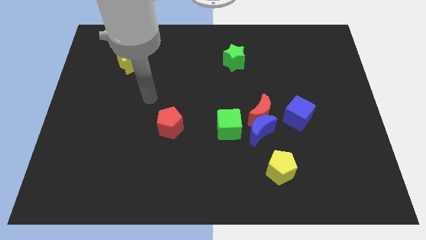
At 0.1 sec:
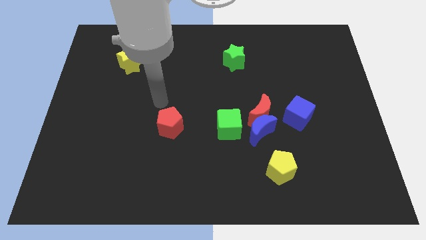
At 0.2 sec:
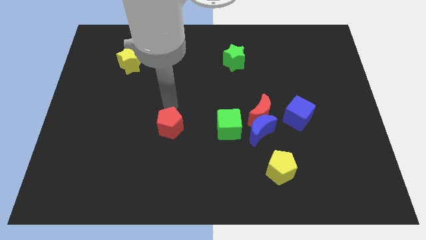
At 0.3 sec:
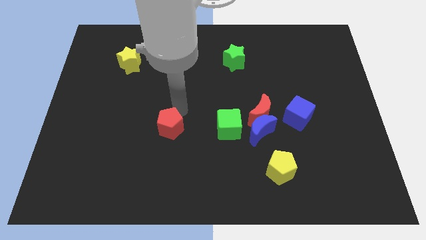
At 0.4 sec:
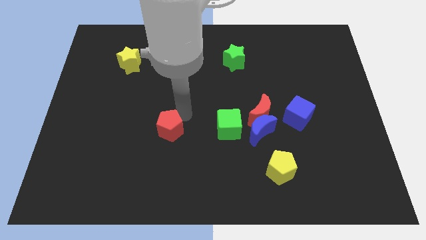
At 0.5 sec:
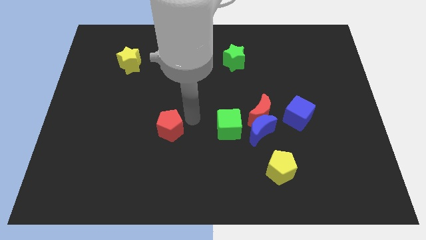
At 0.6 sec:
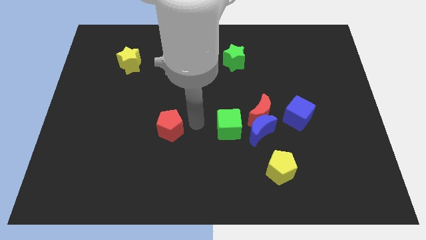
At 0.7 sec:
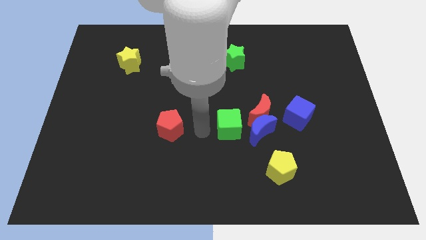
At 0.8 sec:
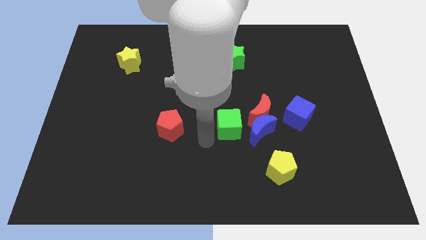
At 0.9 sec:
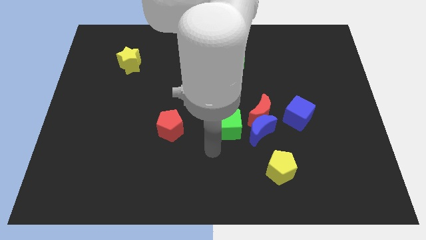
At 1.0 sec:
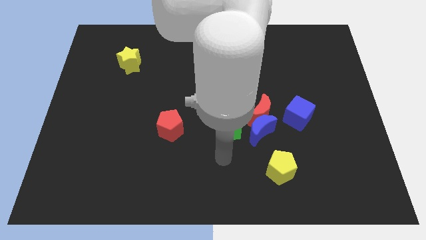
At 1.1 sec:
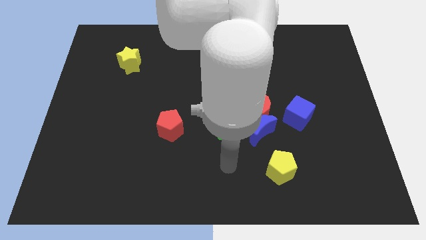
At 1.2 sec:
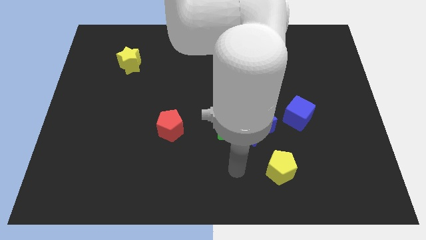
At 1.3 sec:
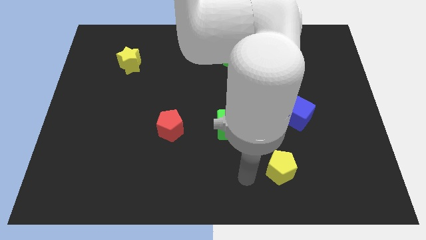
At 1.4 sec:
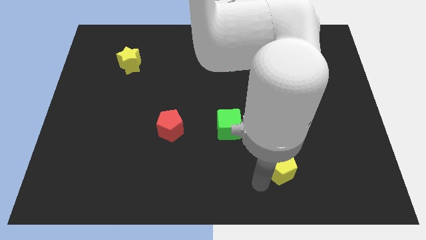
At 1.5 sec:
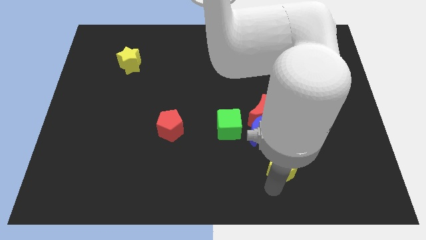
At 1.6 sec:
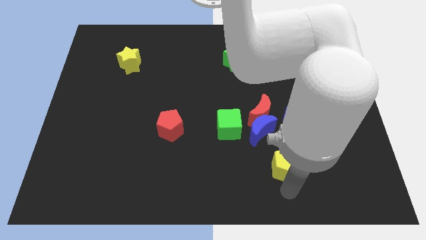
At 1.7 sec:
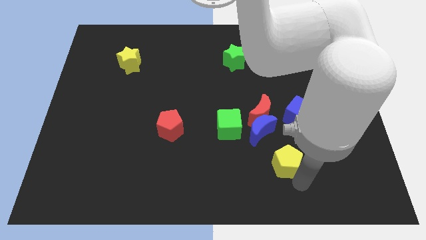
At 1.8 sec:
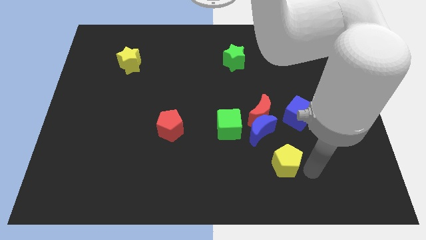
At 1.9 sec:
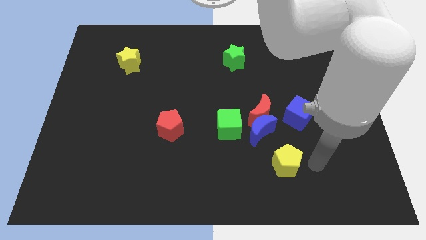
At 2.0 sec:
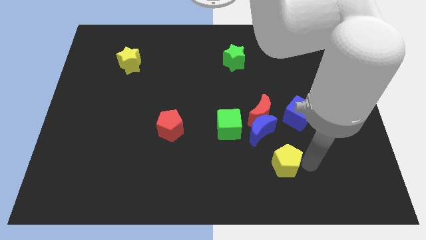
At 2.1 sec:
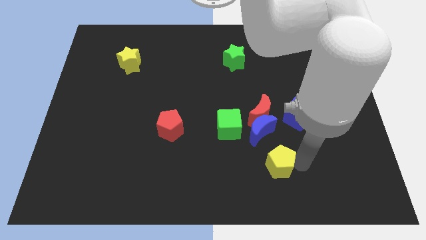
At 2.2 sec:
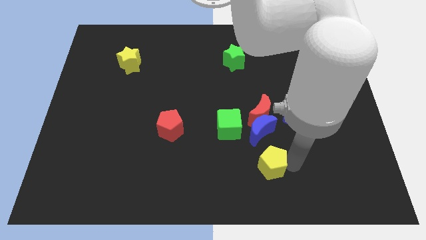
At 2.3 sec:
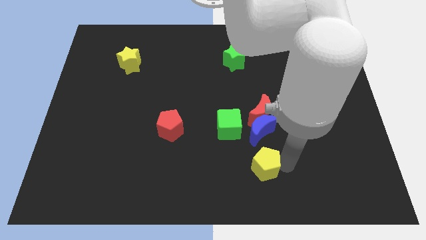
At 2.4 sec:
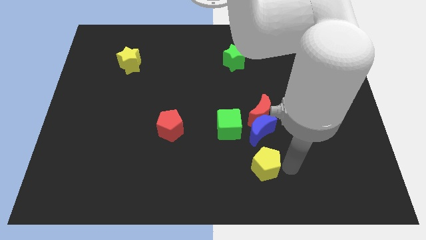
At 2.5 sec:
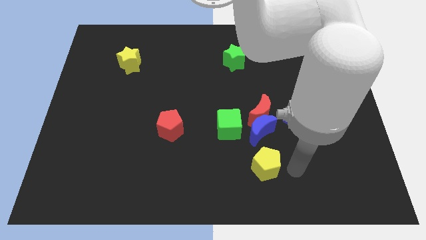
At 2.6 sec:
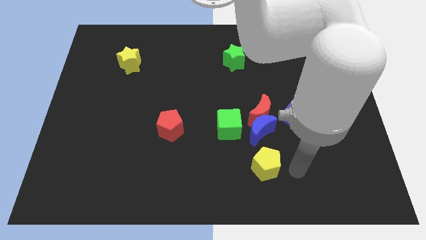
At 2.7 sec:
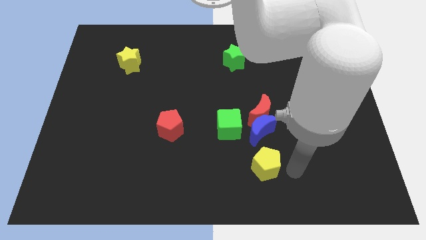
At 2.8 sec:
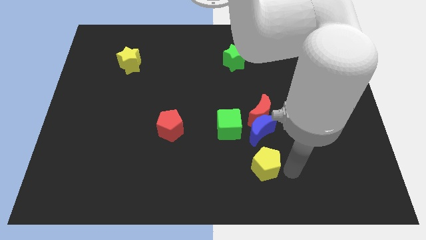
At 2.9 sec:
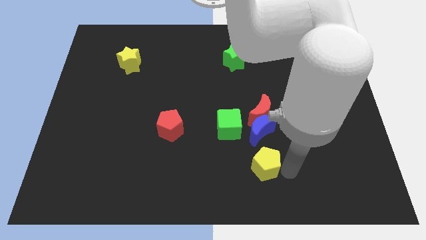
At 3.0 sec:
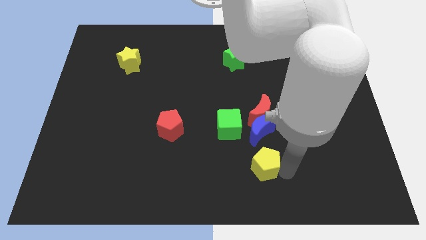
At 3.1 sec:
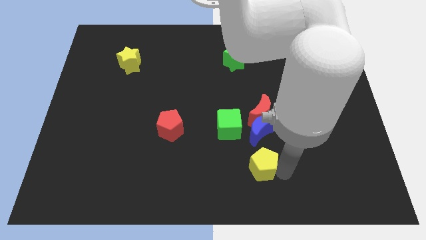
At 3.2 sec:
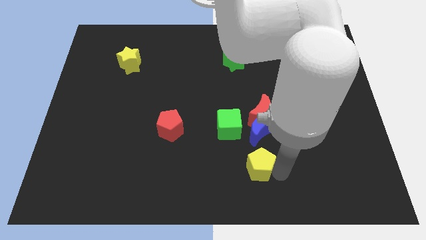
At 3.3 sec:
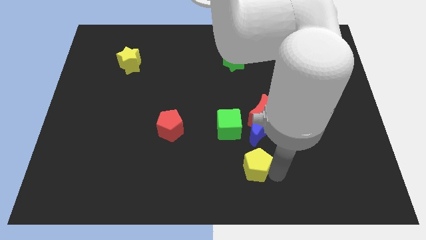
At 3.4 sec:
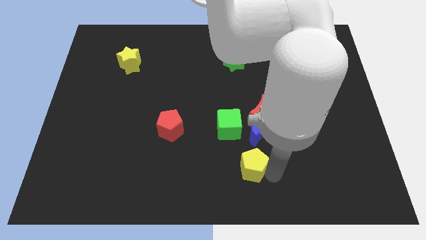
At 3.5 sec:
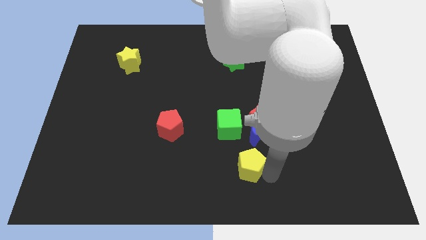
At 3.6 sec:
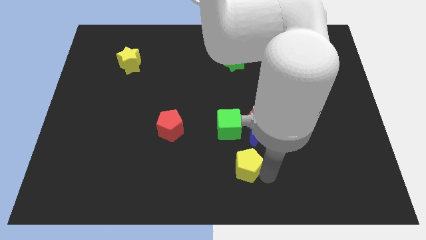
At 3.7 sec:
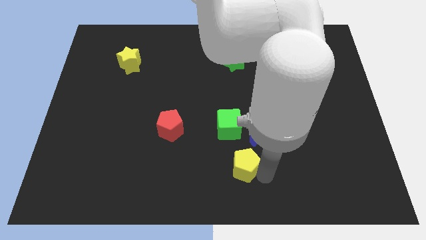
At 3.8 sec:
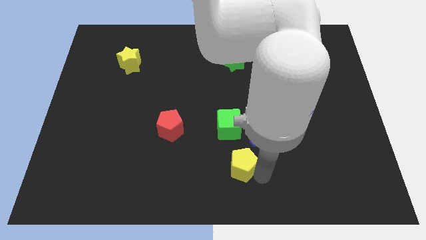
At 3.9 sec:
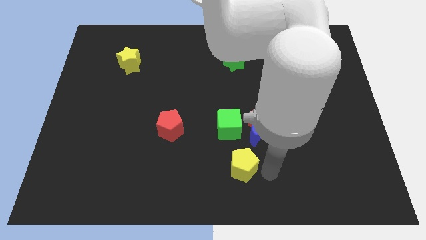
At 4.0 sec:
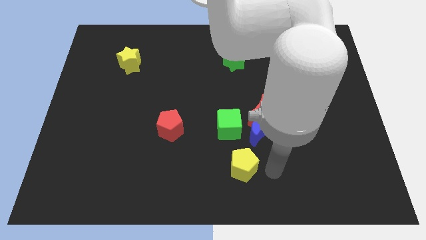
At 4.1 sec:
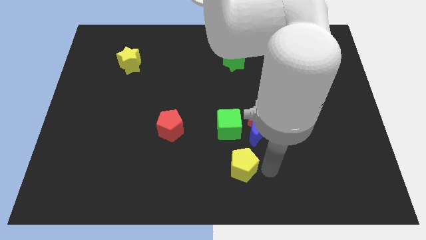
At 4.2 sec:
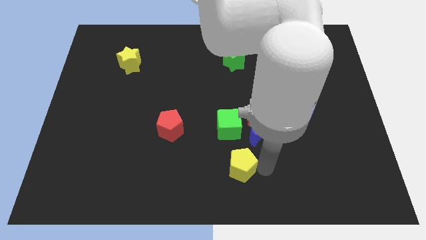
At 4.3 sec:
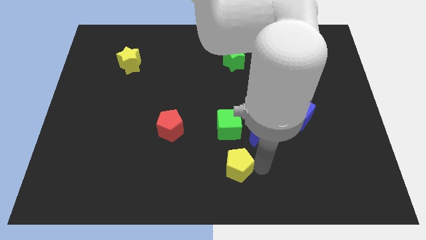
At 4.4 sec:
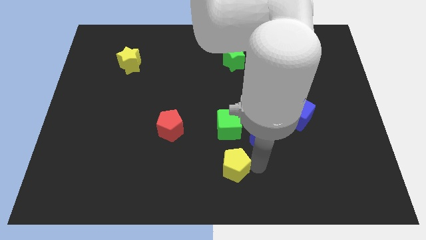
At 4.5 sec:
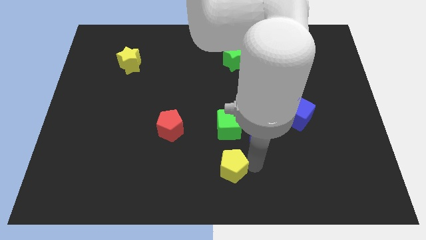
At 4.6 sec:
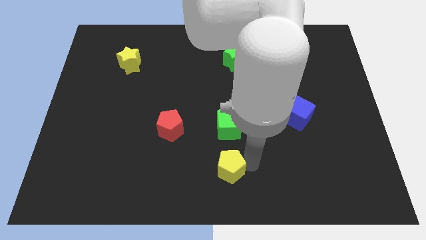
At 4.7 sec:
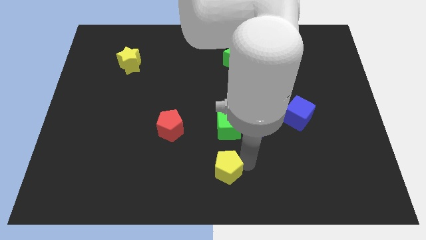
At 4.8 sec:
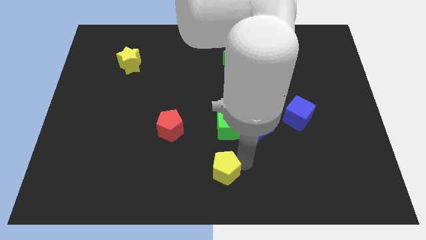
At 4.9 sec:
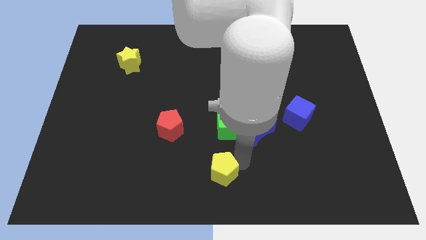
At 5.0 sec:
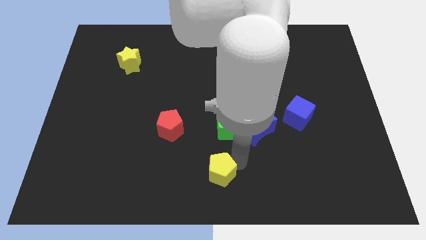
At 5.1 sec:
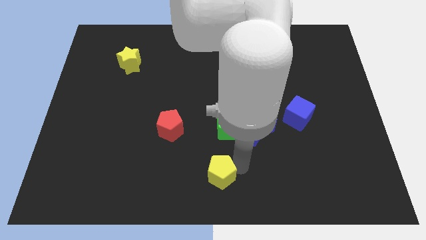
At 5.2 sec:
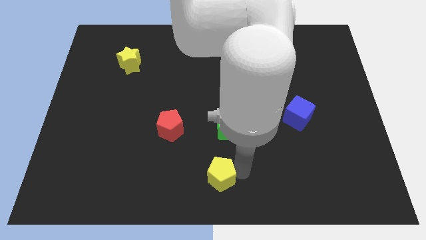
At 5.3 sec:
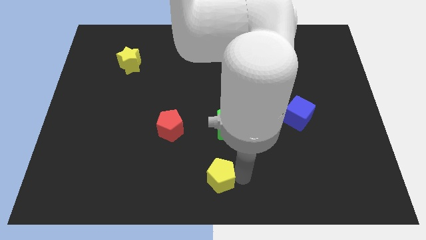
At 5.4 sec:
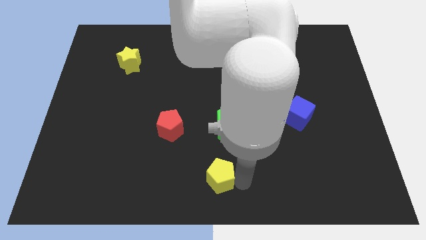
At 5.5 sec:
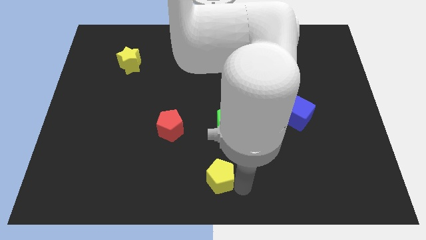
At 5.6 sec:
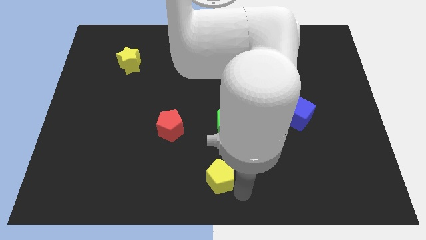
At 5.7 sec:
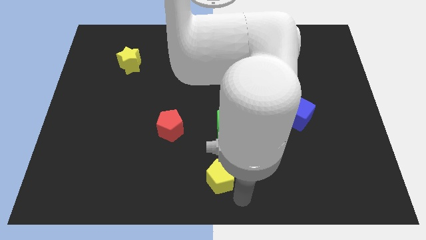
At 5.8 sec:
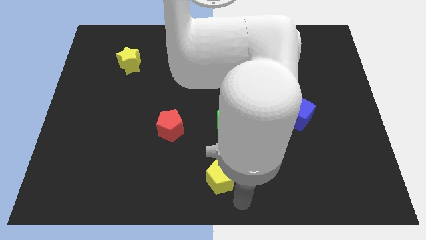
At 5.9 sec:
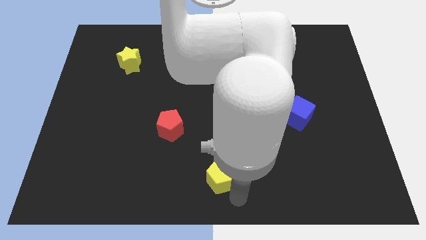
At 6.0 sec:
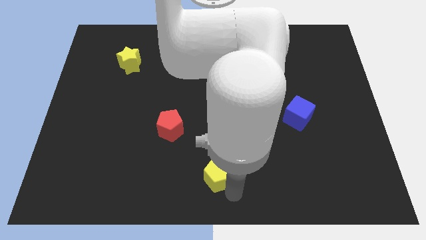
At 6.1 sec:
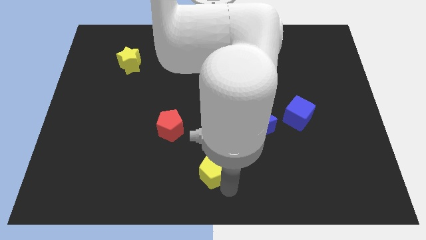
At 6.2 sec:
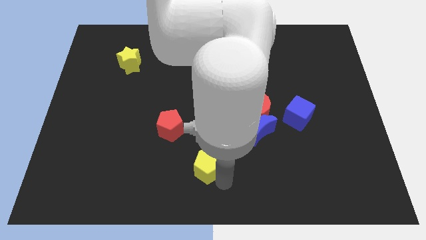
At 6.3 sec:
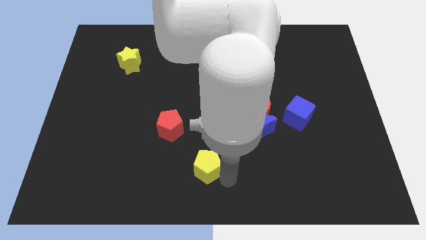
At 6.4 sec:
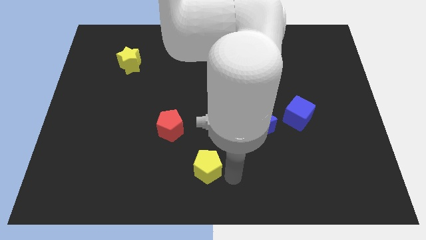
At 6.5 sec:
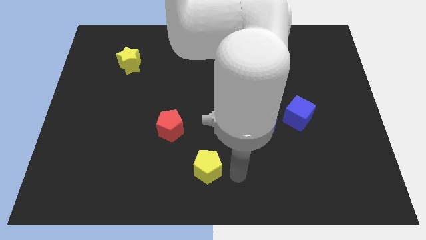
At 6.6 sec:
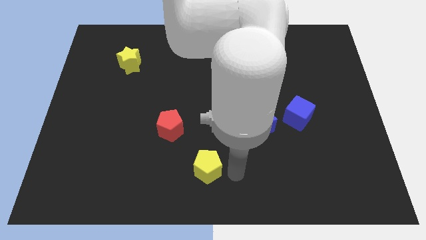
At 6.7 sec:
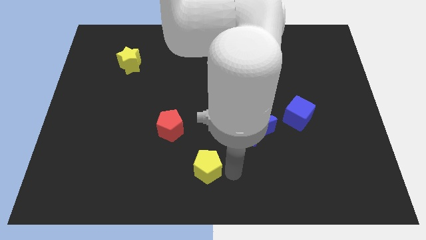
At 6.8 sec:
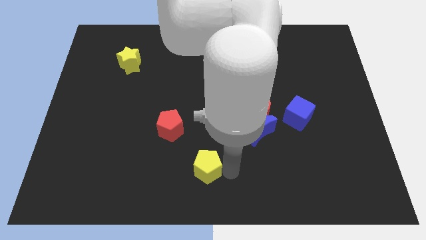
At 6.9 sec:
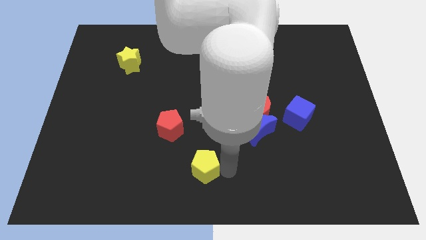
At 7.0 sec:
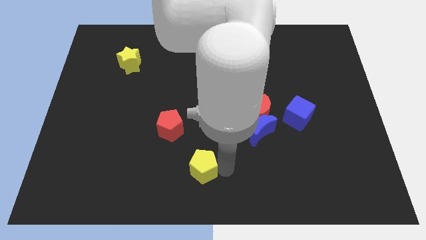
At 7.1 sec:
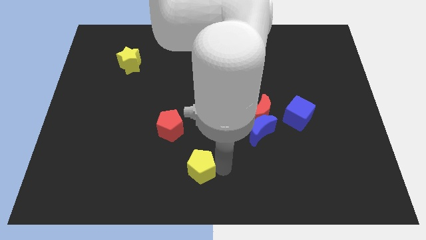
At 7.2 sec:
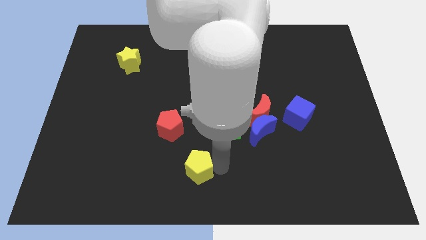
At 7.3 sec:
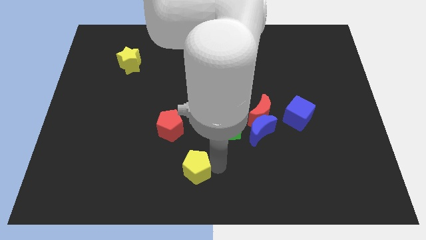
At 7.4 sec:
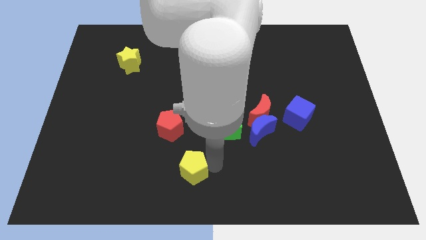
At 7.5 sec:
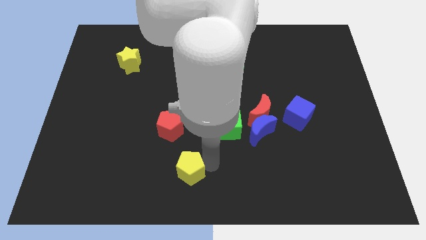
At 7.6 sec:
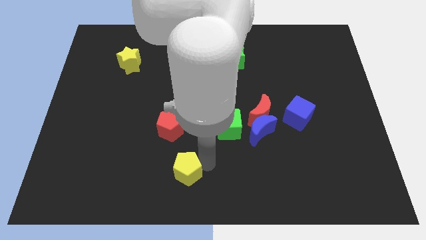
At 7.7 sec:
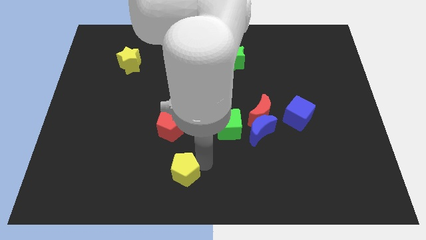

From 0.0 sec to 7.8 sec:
slide the yellow pentagon to the left

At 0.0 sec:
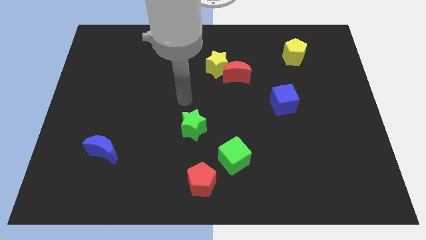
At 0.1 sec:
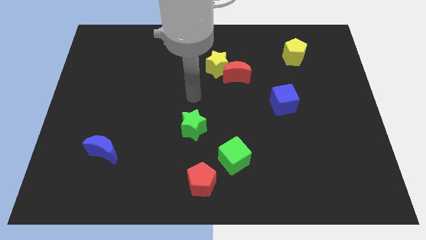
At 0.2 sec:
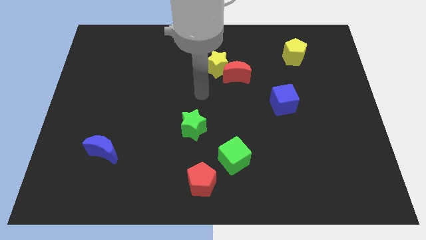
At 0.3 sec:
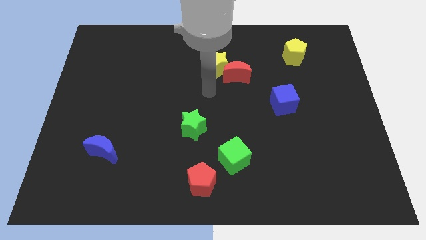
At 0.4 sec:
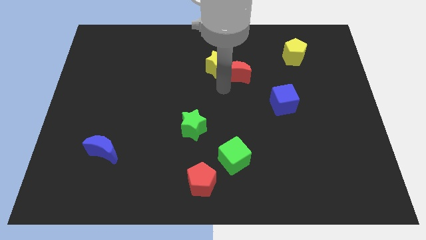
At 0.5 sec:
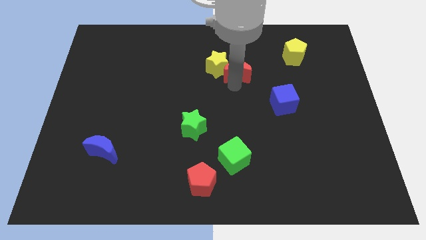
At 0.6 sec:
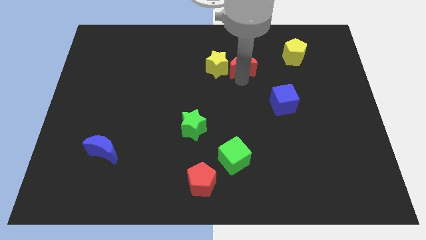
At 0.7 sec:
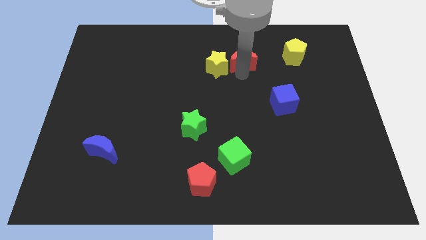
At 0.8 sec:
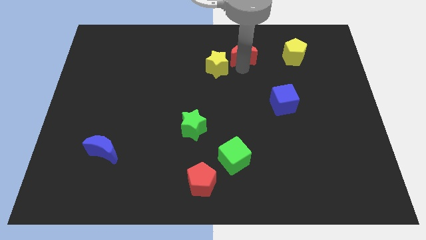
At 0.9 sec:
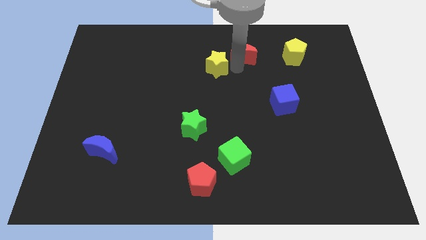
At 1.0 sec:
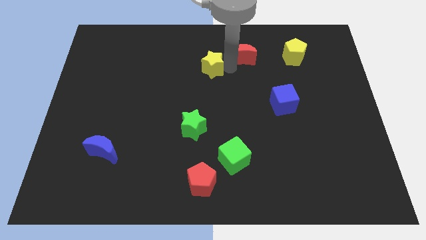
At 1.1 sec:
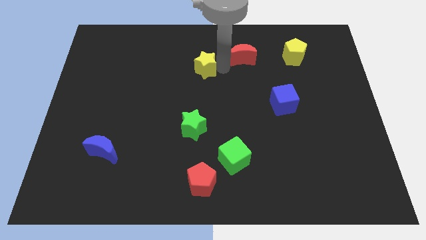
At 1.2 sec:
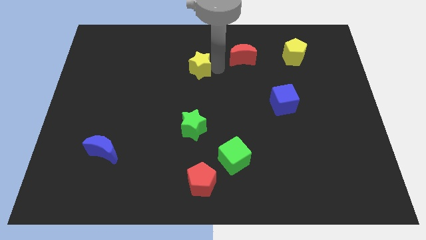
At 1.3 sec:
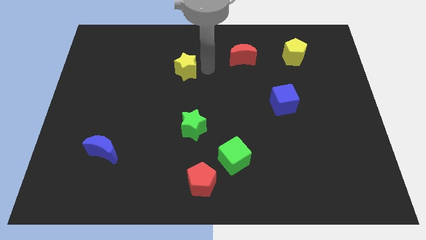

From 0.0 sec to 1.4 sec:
slide the yellow star a little left
